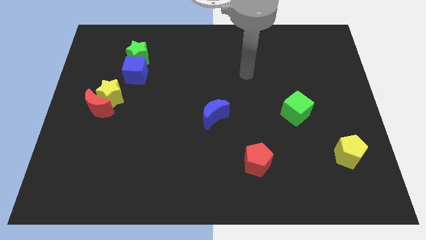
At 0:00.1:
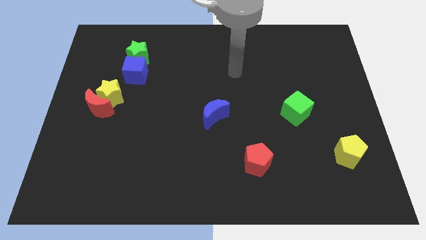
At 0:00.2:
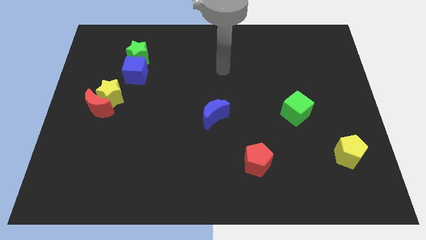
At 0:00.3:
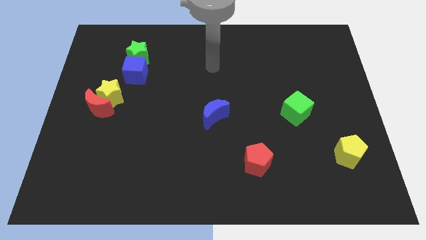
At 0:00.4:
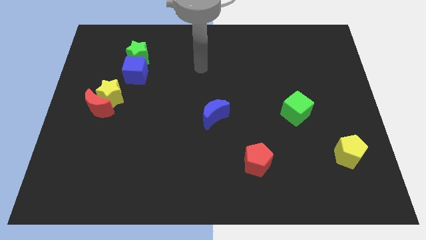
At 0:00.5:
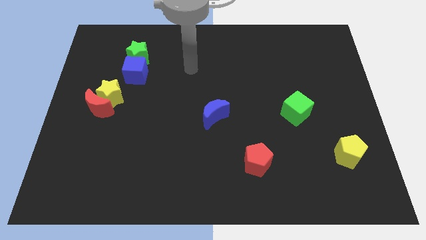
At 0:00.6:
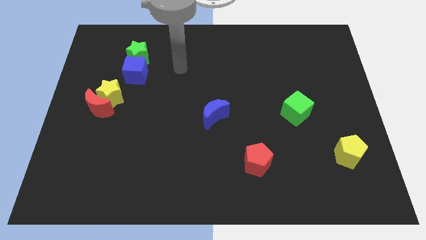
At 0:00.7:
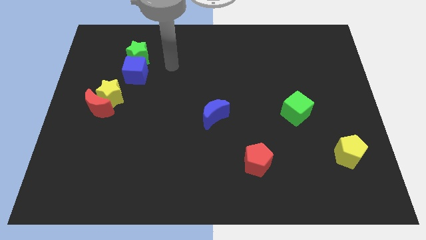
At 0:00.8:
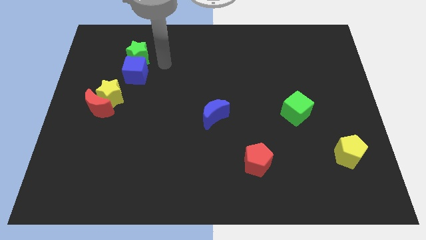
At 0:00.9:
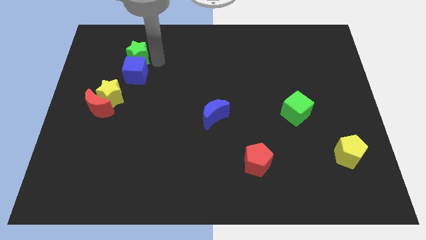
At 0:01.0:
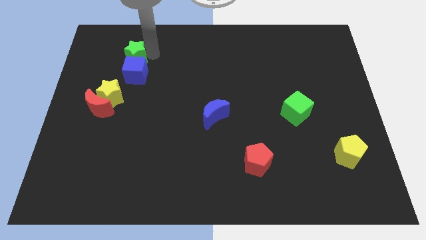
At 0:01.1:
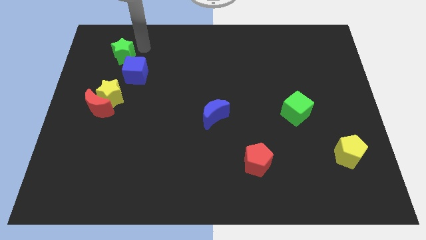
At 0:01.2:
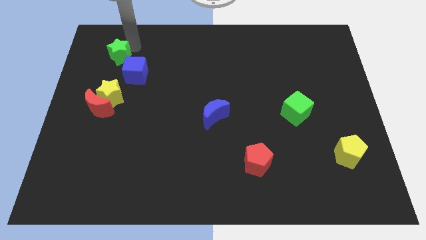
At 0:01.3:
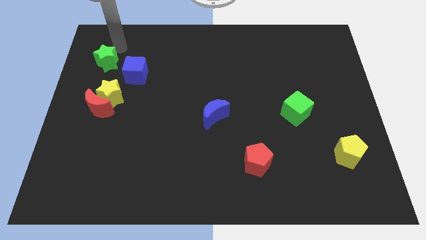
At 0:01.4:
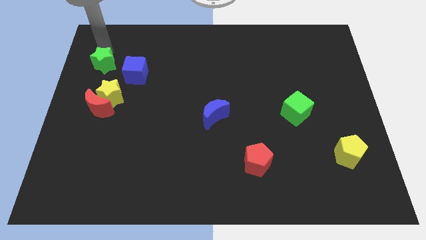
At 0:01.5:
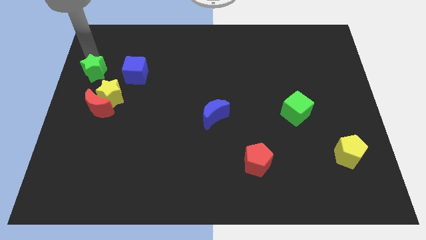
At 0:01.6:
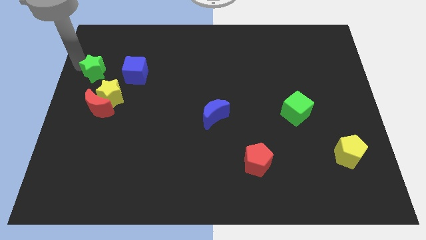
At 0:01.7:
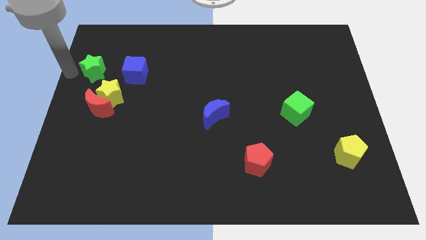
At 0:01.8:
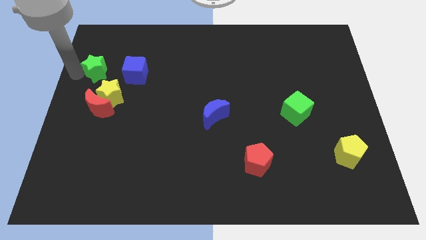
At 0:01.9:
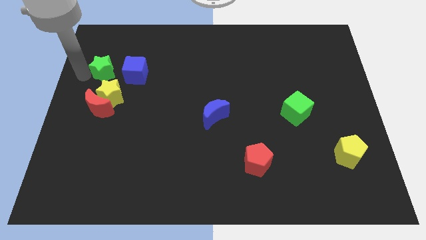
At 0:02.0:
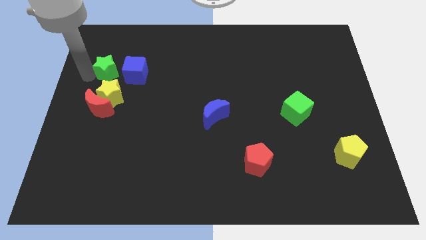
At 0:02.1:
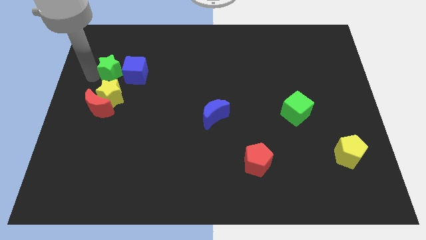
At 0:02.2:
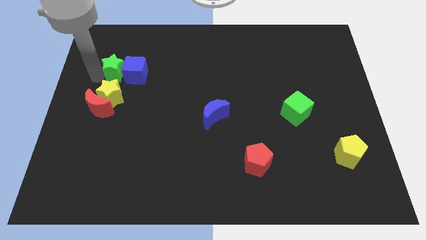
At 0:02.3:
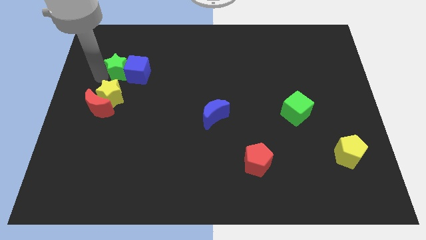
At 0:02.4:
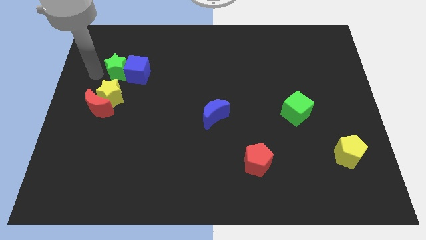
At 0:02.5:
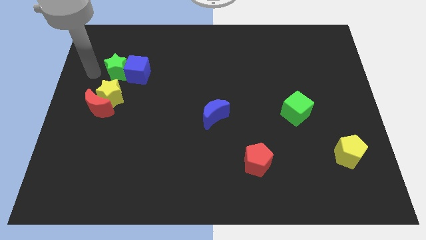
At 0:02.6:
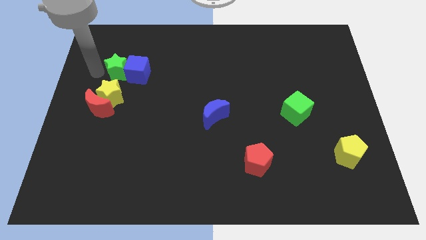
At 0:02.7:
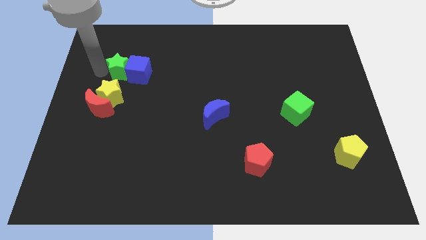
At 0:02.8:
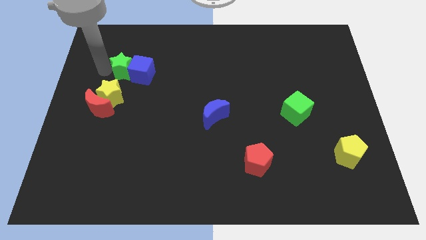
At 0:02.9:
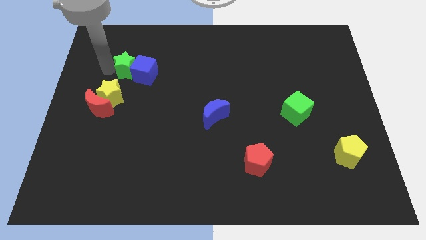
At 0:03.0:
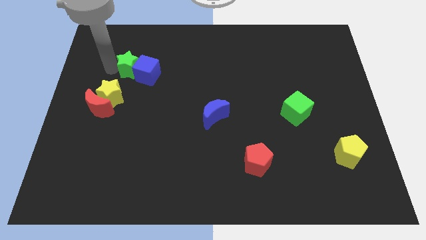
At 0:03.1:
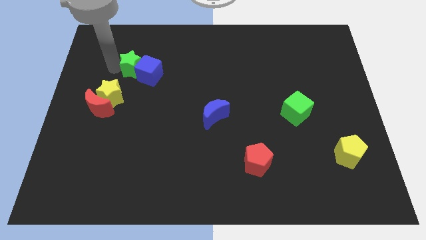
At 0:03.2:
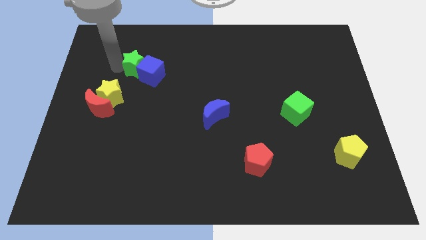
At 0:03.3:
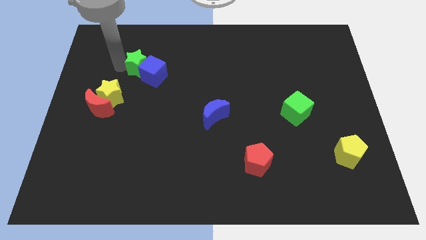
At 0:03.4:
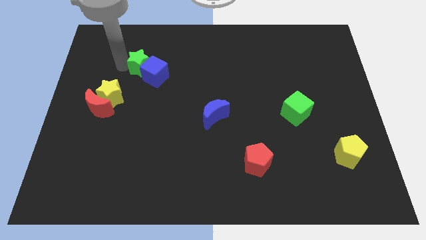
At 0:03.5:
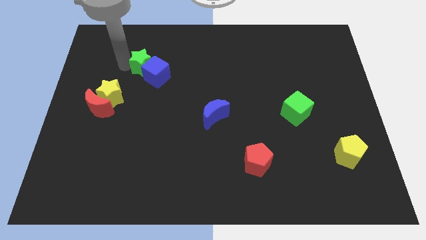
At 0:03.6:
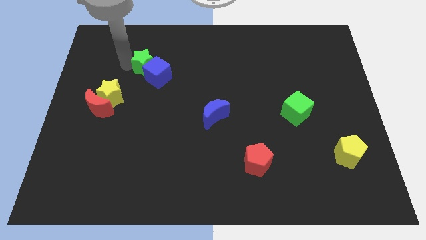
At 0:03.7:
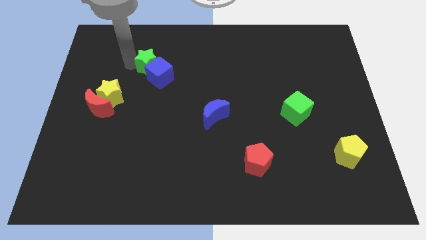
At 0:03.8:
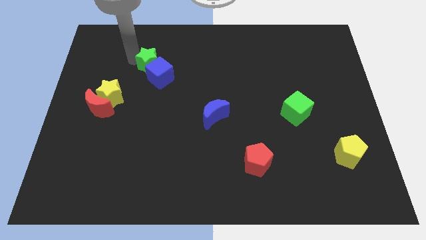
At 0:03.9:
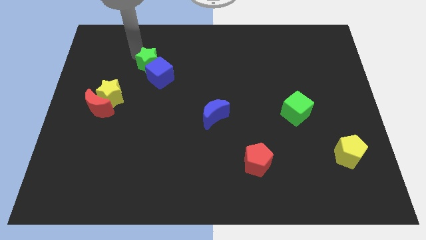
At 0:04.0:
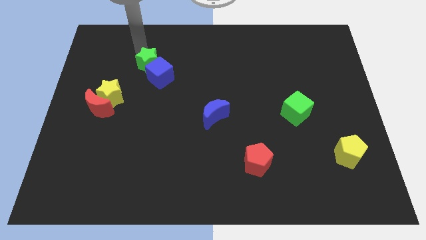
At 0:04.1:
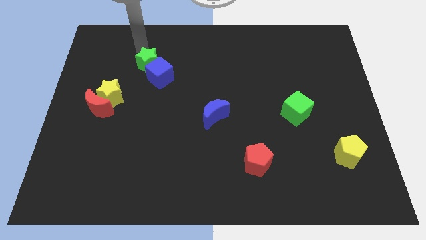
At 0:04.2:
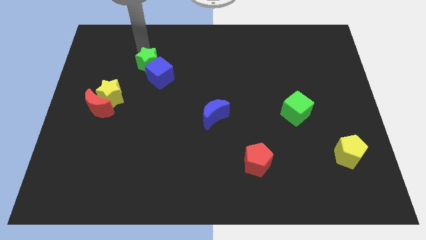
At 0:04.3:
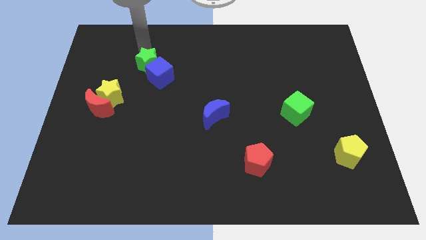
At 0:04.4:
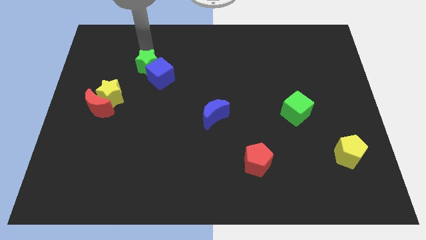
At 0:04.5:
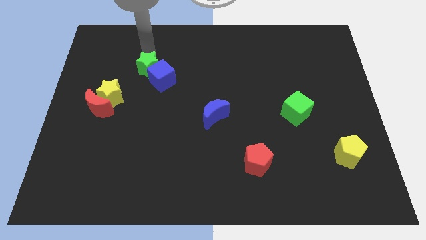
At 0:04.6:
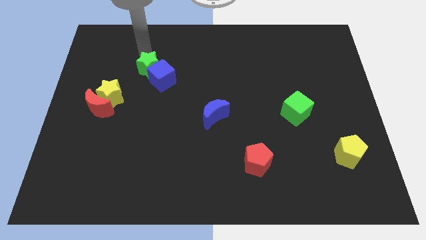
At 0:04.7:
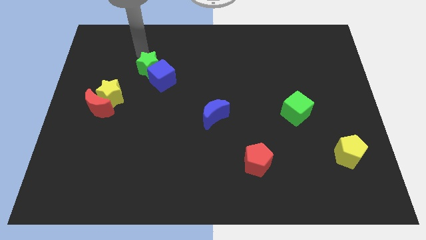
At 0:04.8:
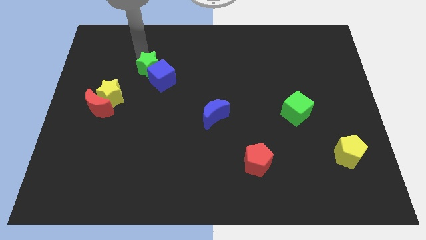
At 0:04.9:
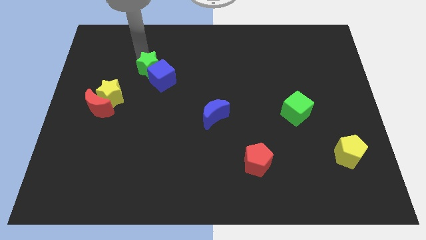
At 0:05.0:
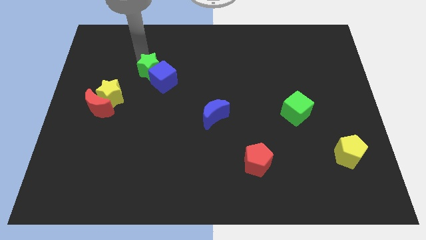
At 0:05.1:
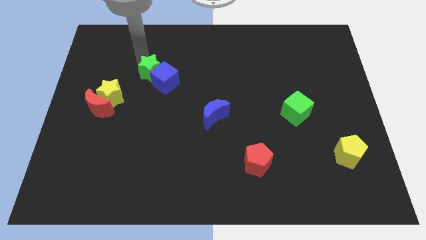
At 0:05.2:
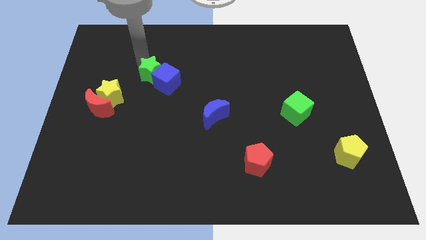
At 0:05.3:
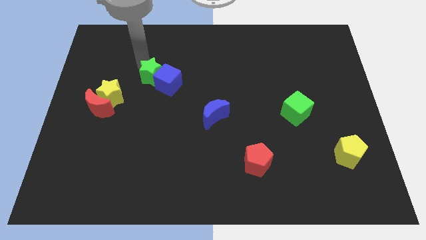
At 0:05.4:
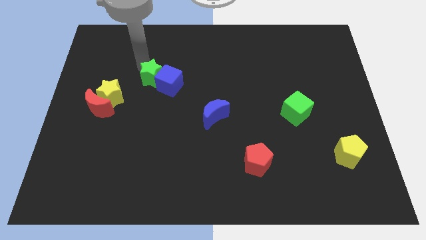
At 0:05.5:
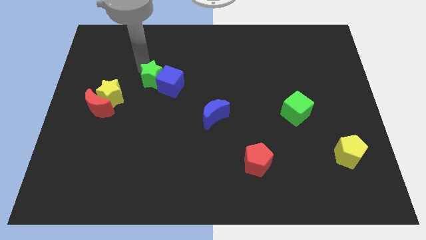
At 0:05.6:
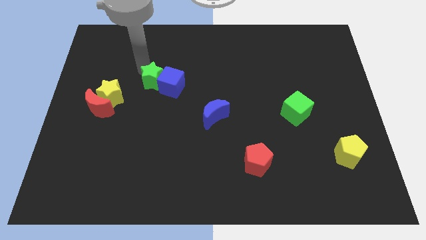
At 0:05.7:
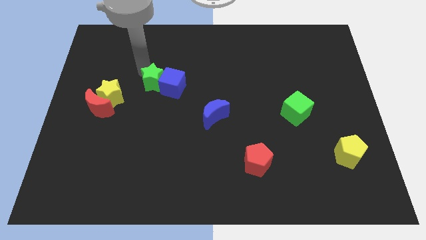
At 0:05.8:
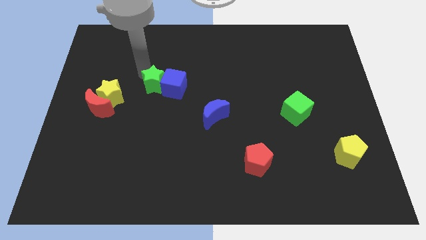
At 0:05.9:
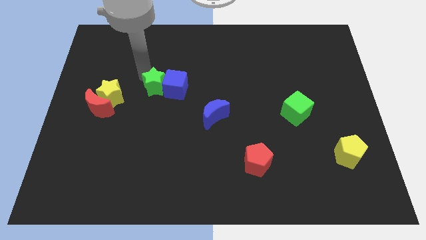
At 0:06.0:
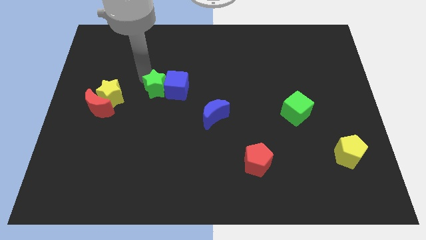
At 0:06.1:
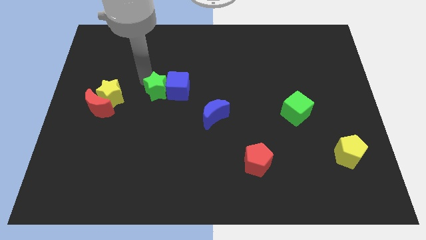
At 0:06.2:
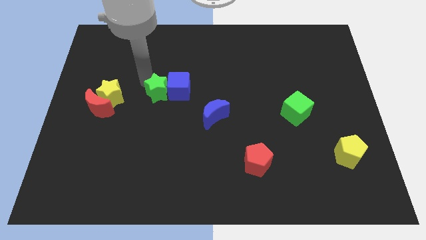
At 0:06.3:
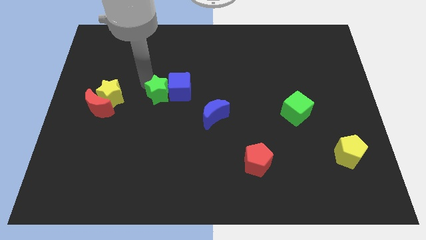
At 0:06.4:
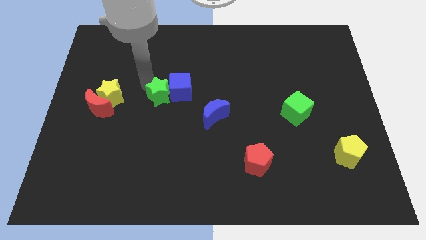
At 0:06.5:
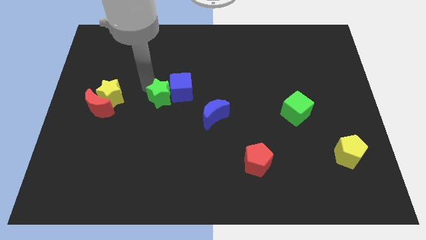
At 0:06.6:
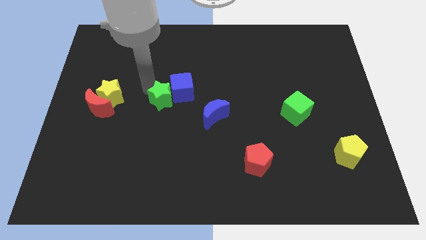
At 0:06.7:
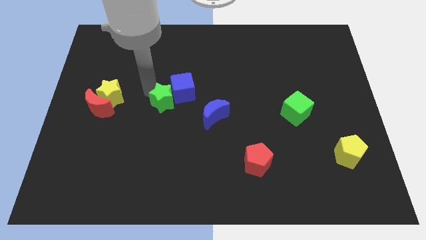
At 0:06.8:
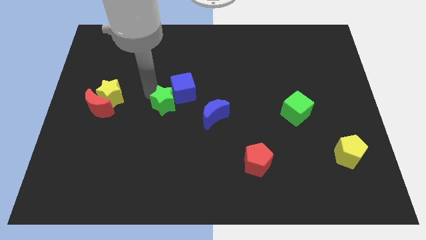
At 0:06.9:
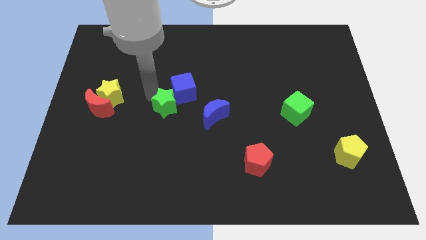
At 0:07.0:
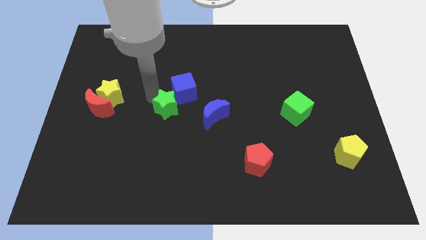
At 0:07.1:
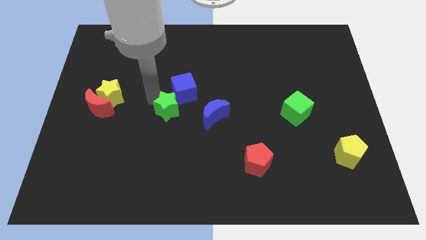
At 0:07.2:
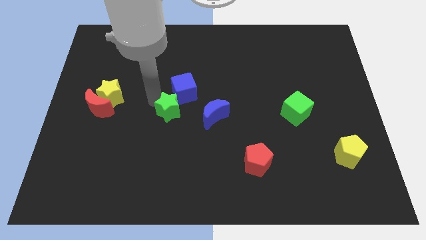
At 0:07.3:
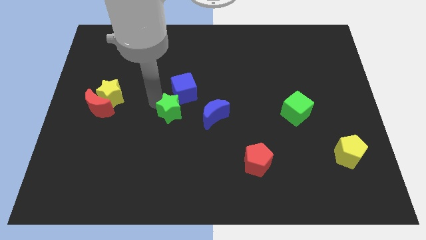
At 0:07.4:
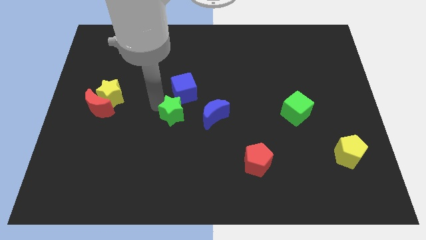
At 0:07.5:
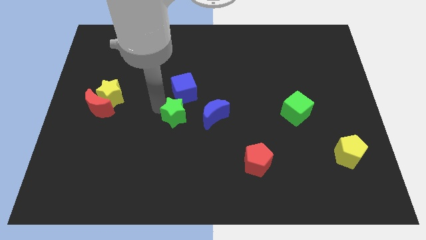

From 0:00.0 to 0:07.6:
move the green star diagonally downwards and to the right
